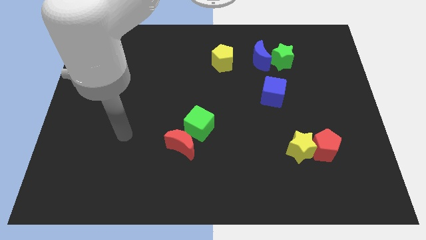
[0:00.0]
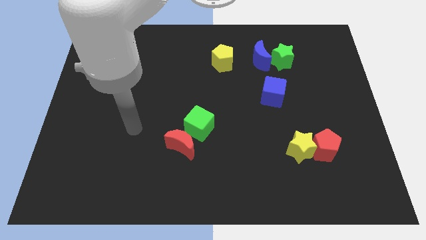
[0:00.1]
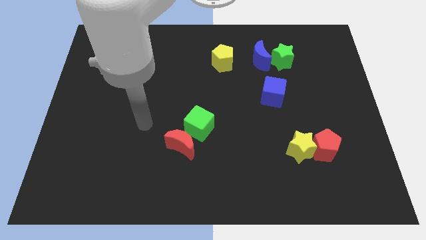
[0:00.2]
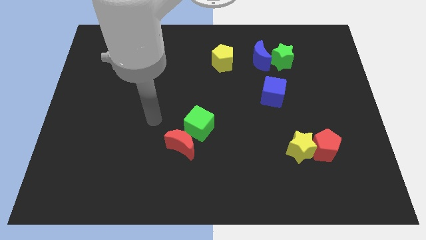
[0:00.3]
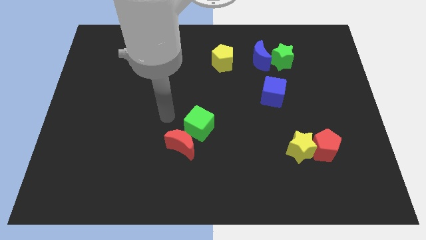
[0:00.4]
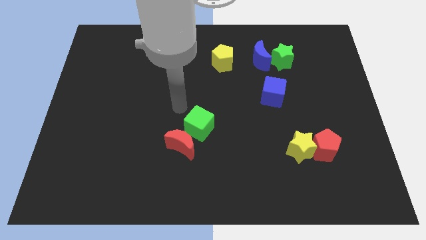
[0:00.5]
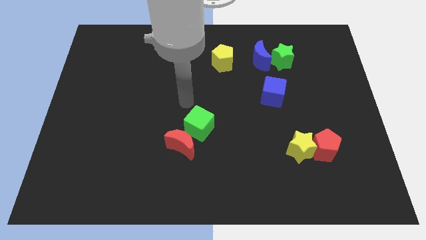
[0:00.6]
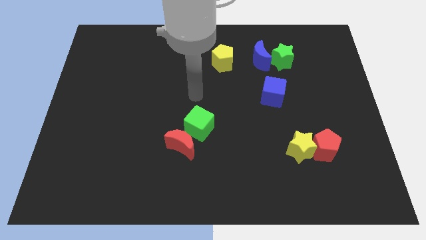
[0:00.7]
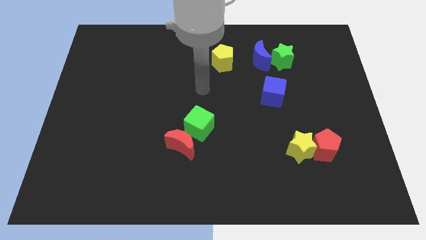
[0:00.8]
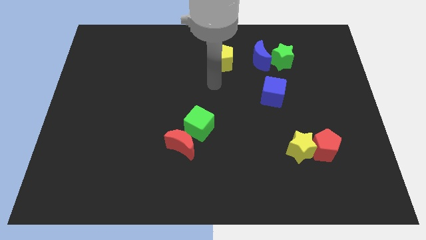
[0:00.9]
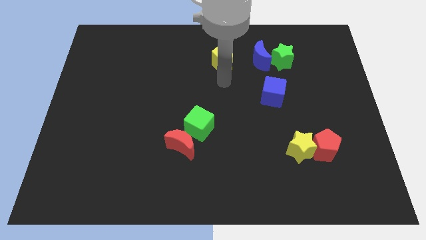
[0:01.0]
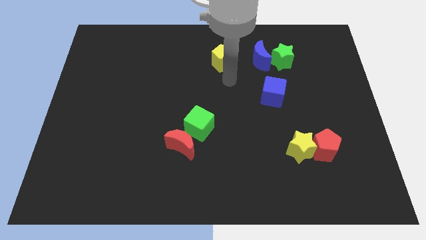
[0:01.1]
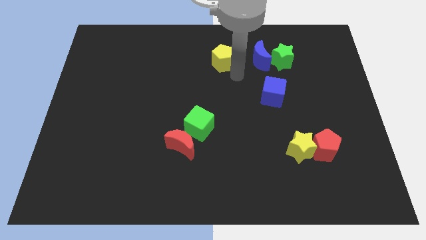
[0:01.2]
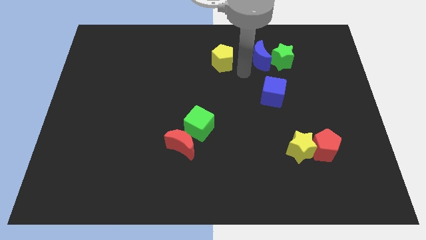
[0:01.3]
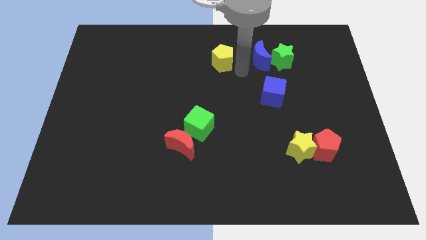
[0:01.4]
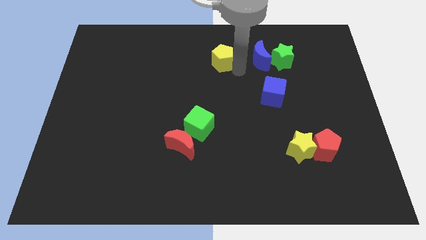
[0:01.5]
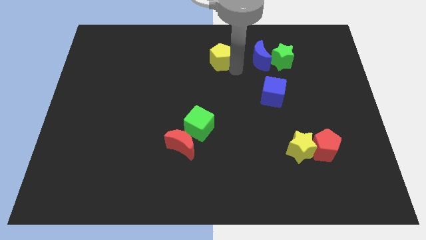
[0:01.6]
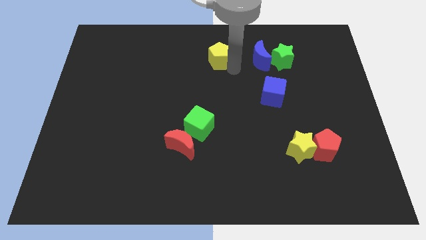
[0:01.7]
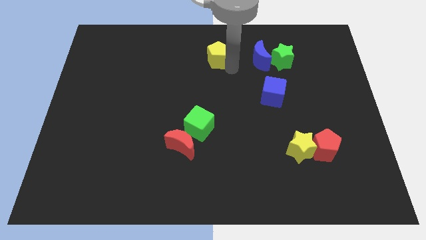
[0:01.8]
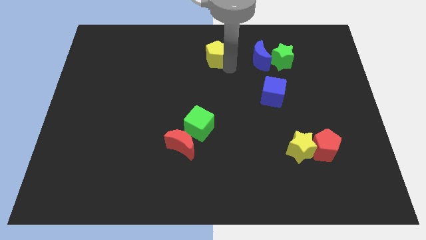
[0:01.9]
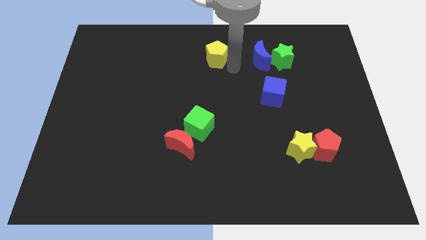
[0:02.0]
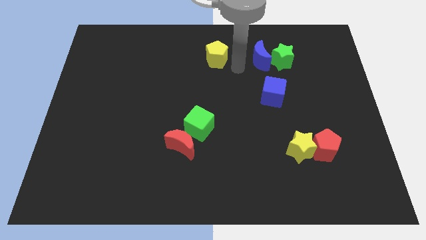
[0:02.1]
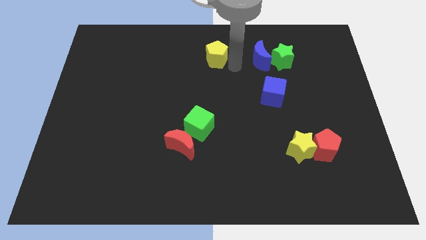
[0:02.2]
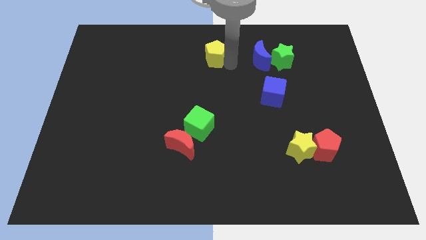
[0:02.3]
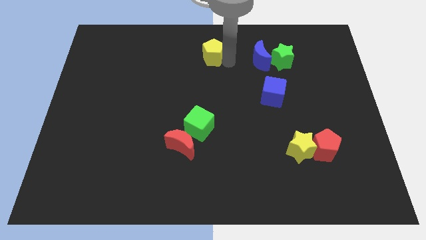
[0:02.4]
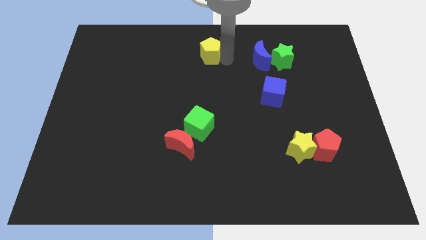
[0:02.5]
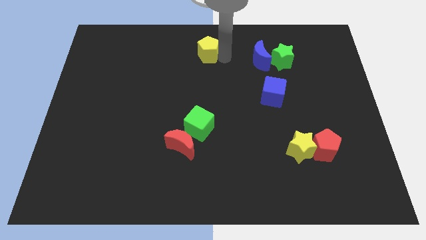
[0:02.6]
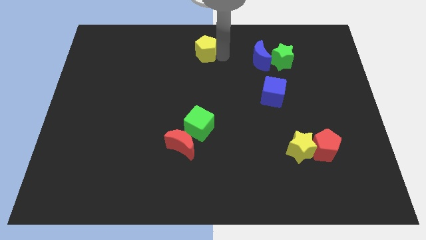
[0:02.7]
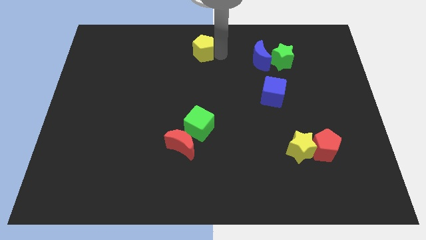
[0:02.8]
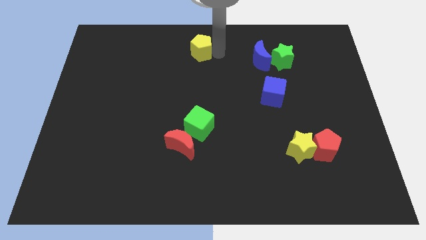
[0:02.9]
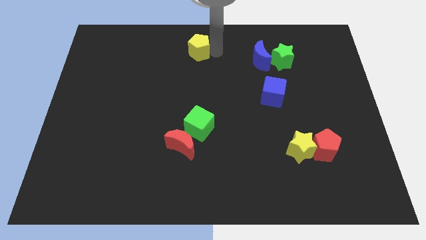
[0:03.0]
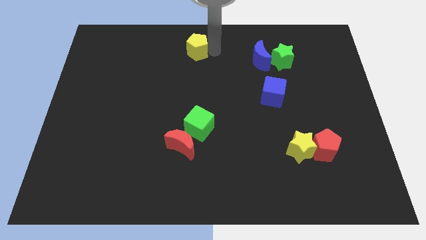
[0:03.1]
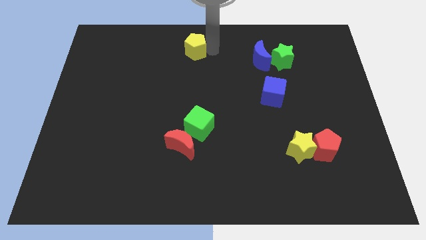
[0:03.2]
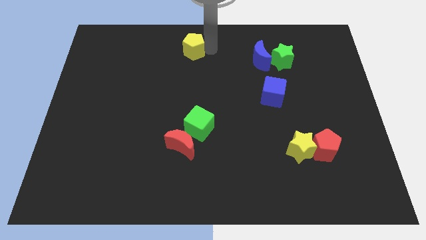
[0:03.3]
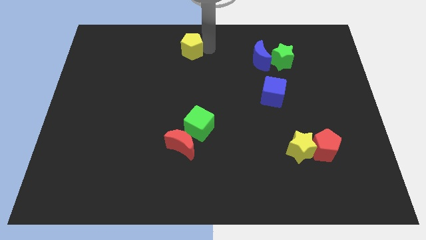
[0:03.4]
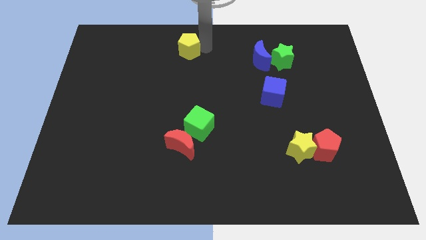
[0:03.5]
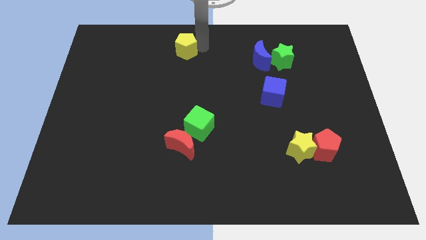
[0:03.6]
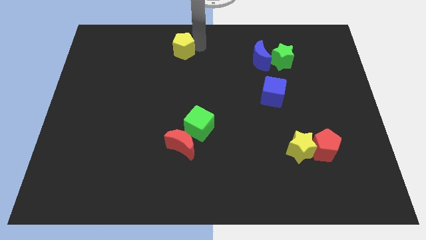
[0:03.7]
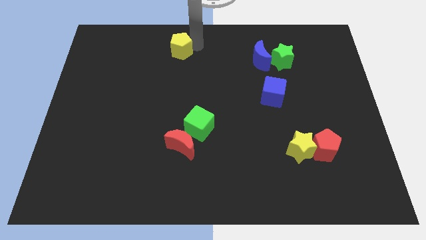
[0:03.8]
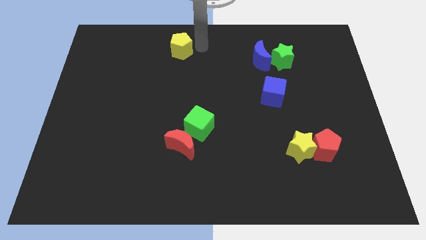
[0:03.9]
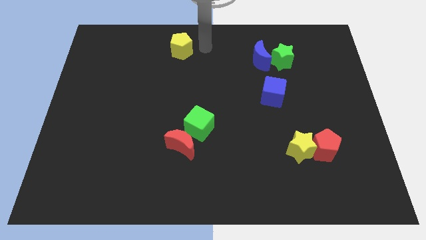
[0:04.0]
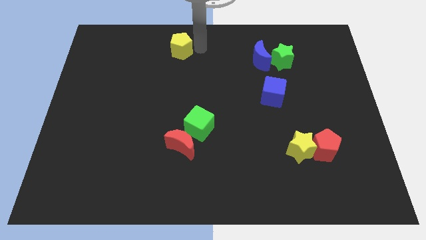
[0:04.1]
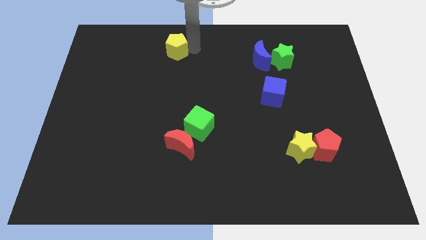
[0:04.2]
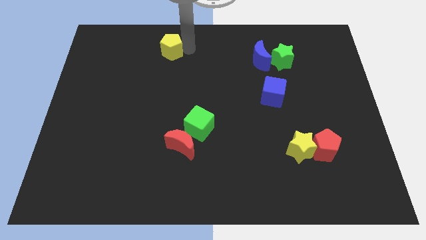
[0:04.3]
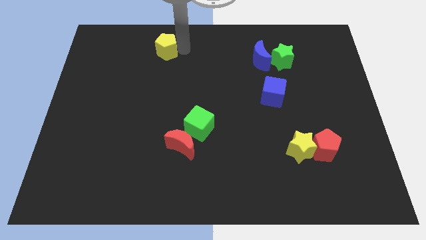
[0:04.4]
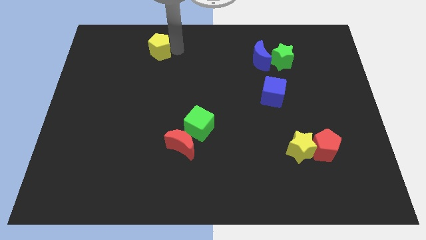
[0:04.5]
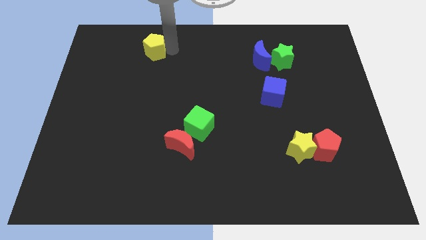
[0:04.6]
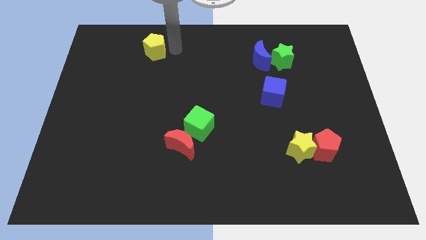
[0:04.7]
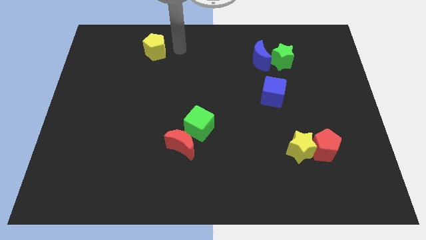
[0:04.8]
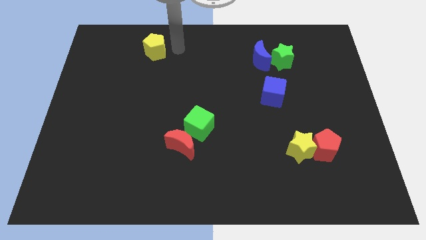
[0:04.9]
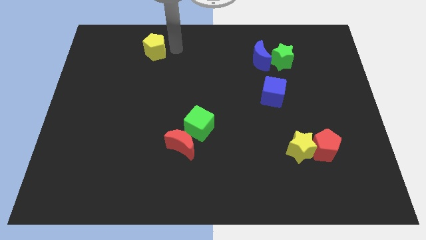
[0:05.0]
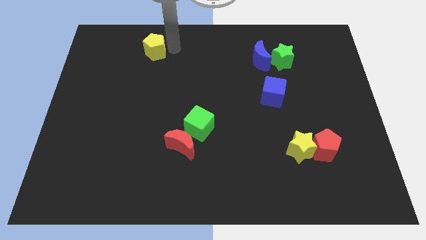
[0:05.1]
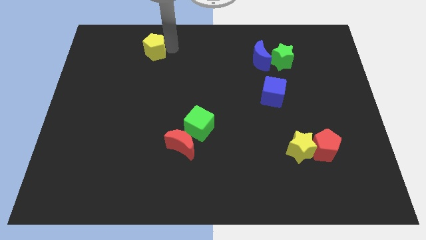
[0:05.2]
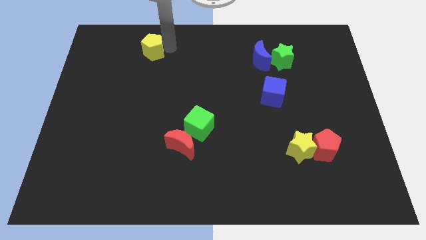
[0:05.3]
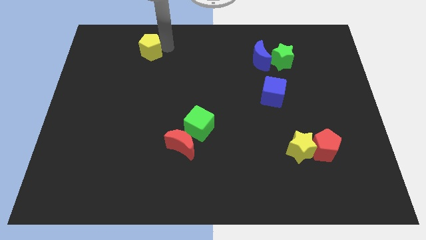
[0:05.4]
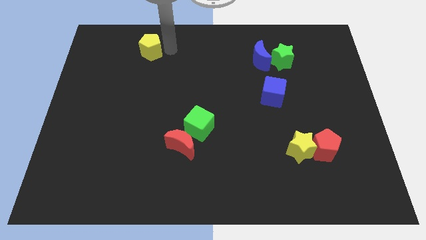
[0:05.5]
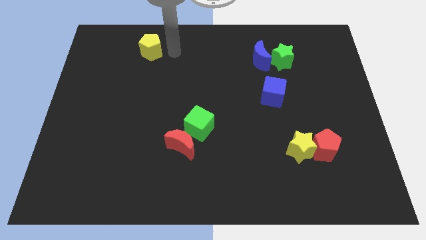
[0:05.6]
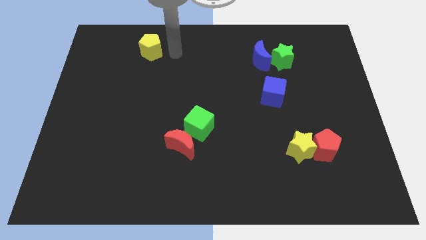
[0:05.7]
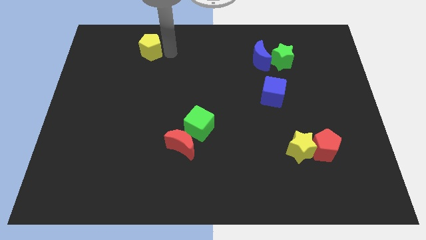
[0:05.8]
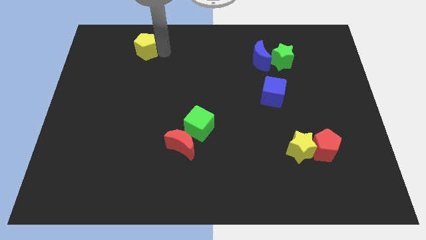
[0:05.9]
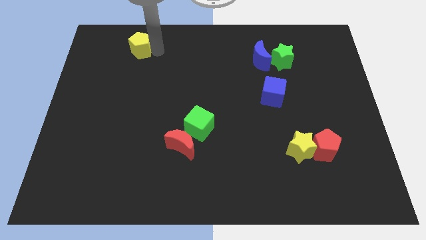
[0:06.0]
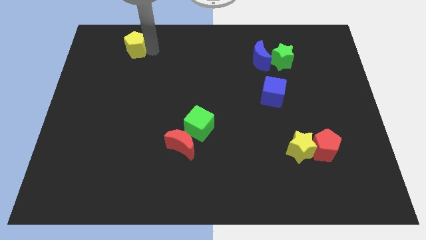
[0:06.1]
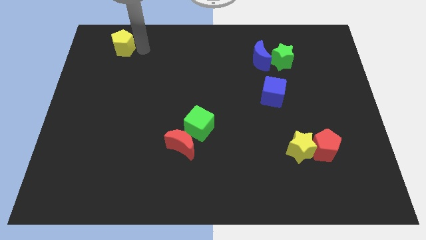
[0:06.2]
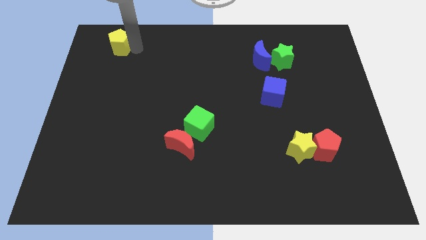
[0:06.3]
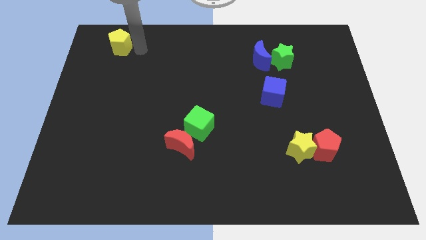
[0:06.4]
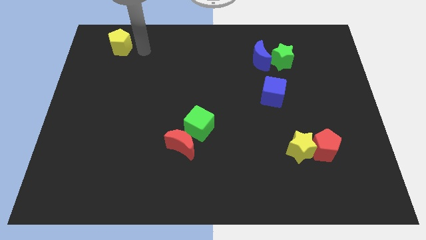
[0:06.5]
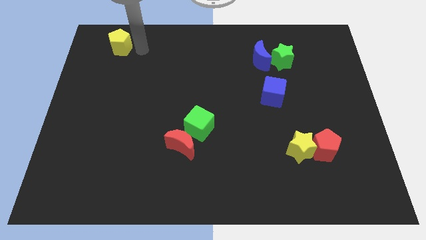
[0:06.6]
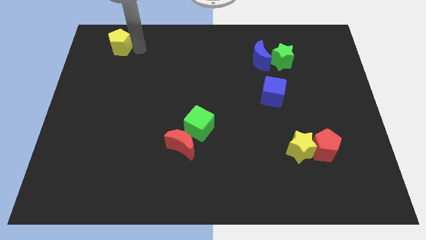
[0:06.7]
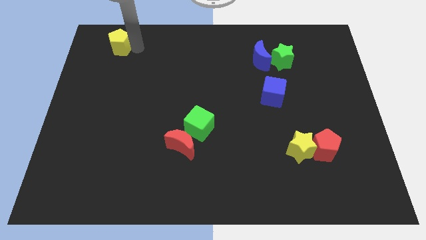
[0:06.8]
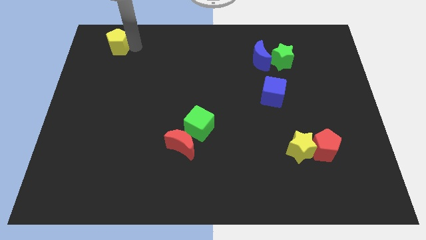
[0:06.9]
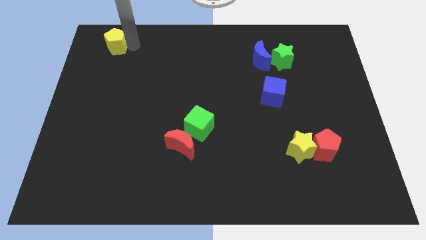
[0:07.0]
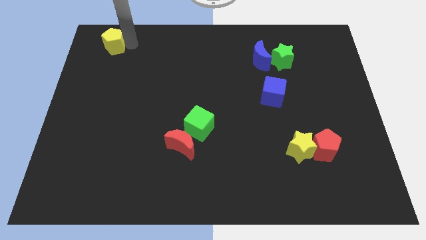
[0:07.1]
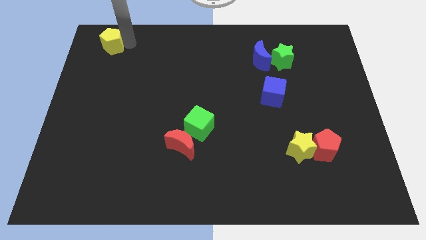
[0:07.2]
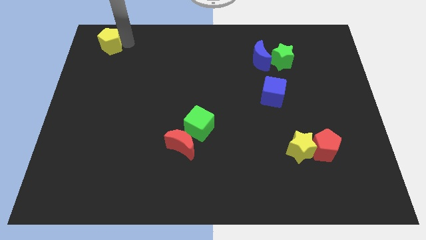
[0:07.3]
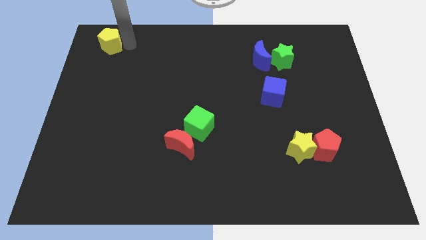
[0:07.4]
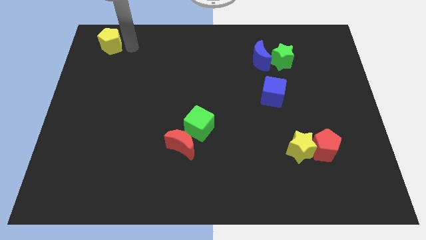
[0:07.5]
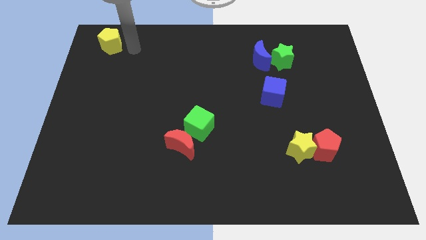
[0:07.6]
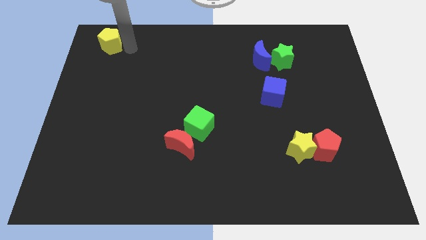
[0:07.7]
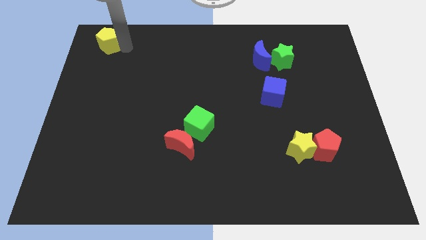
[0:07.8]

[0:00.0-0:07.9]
put the yellow pentagon to the upper left corner
